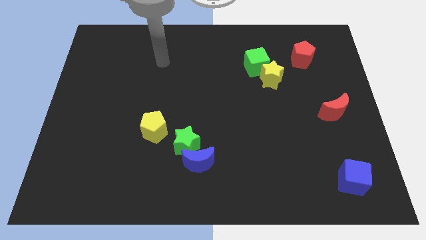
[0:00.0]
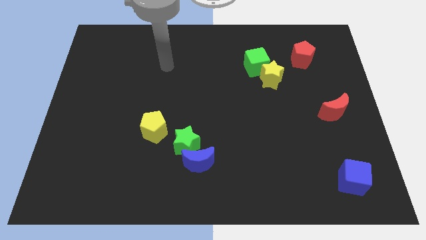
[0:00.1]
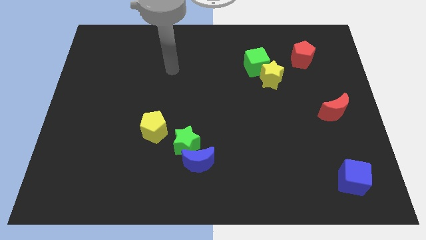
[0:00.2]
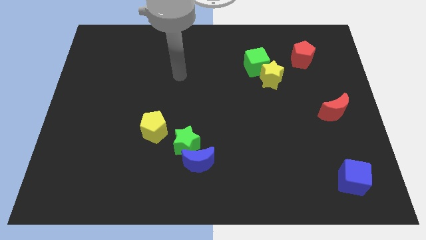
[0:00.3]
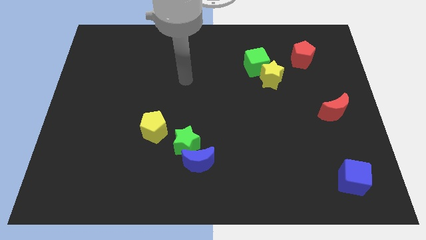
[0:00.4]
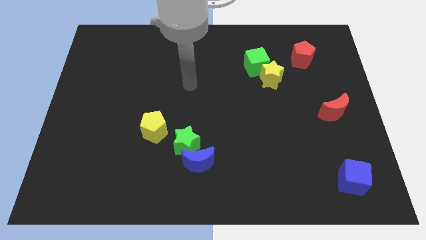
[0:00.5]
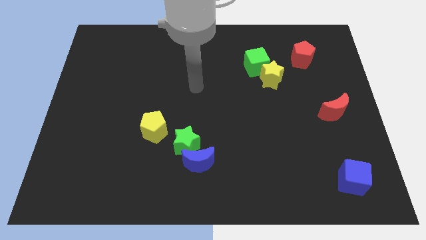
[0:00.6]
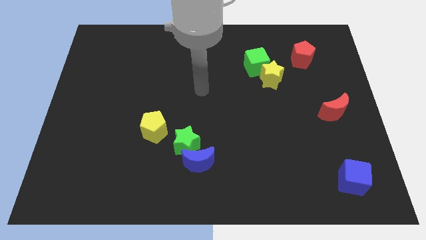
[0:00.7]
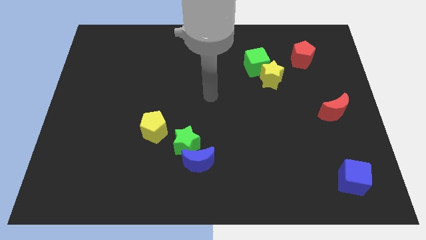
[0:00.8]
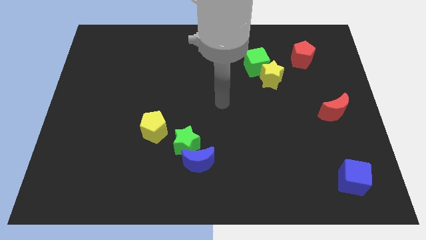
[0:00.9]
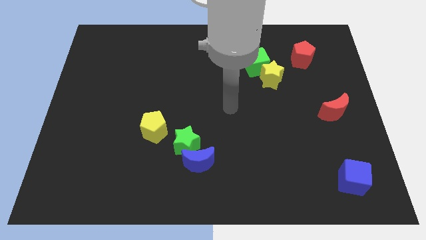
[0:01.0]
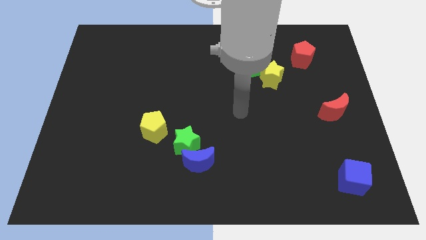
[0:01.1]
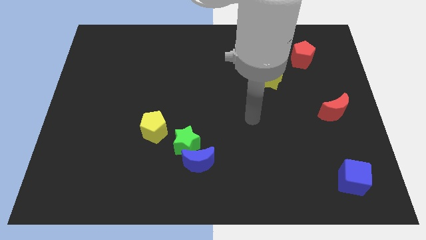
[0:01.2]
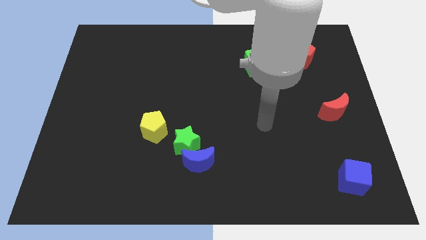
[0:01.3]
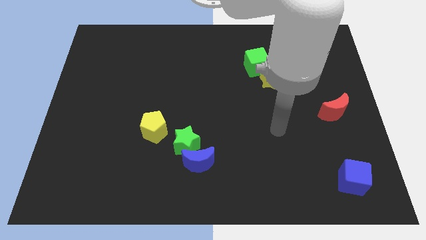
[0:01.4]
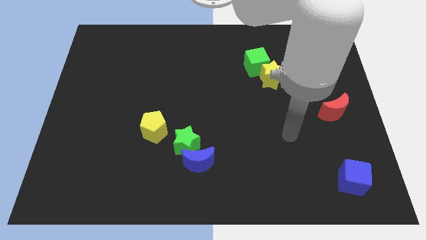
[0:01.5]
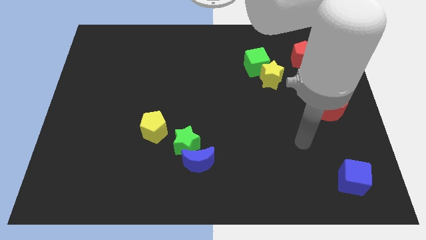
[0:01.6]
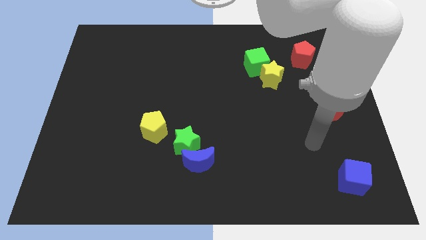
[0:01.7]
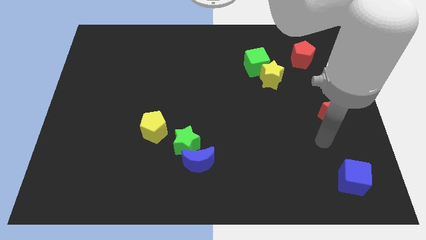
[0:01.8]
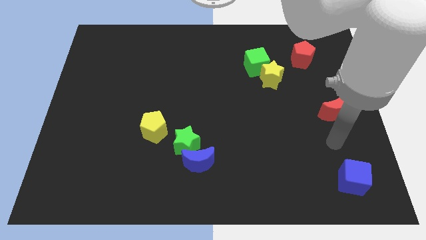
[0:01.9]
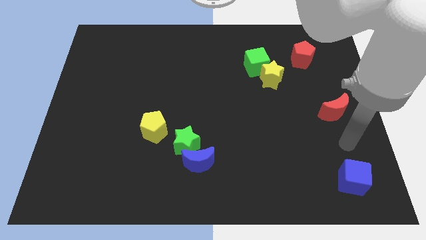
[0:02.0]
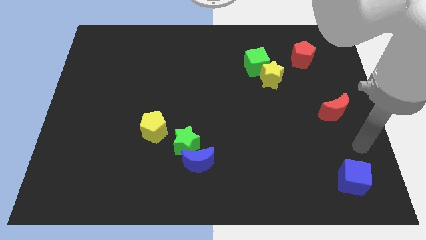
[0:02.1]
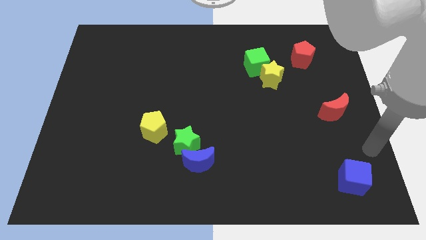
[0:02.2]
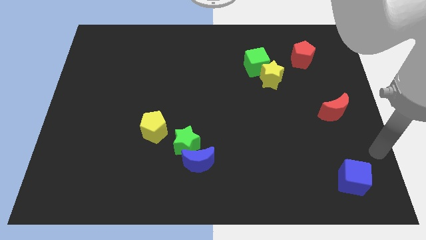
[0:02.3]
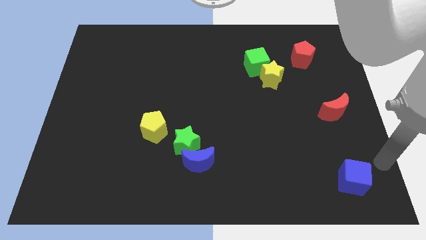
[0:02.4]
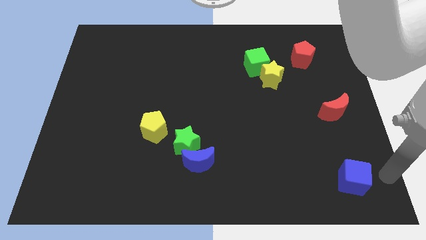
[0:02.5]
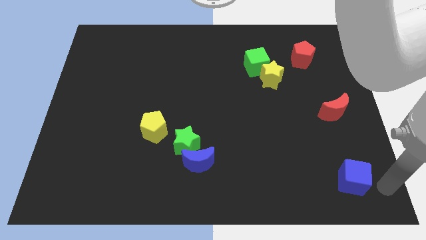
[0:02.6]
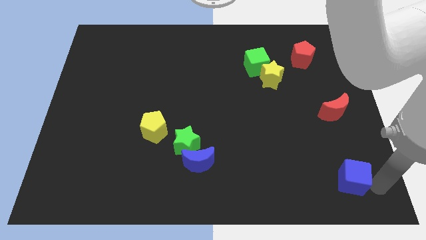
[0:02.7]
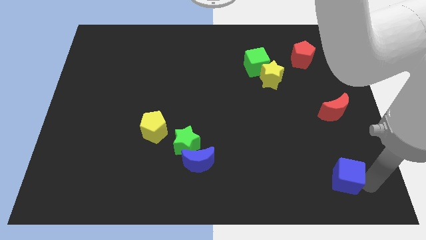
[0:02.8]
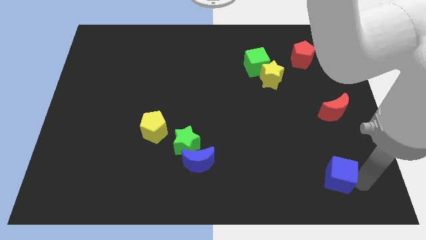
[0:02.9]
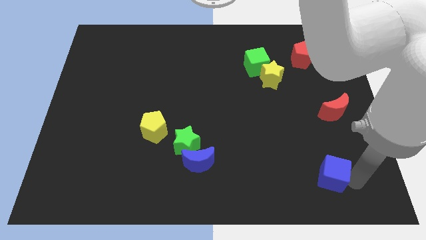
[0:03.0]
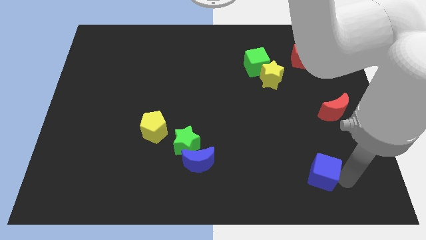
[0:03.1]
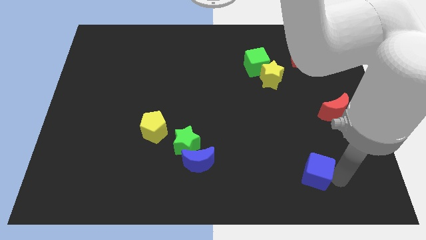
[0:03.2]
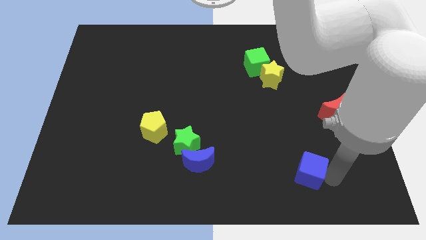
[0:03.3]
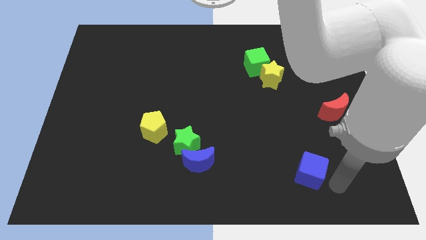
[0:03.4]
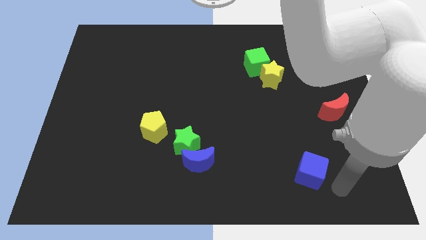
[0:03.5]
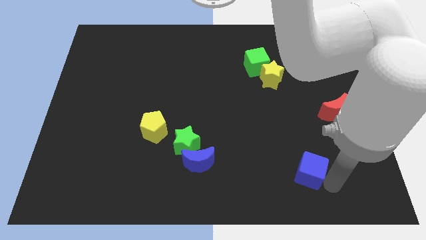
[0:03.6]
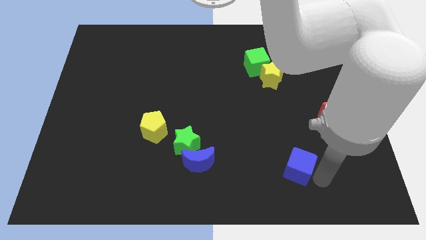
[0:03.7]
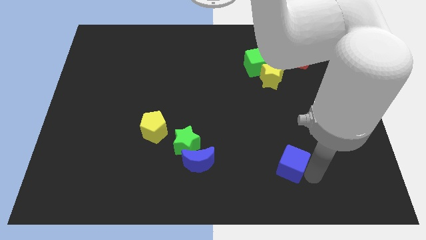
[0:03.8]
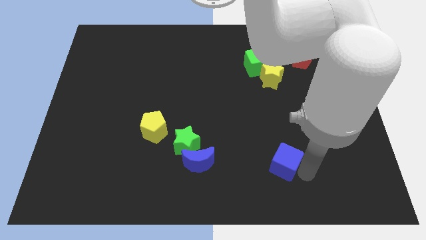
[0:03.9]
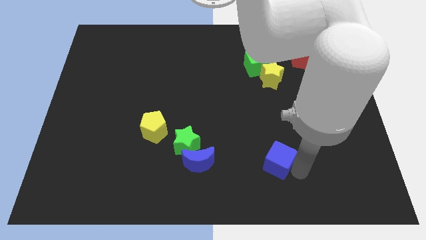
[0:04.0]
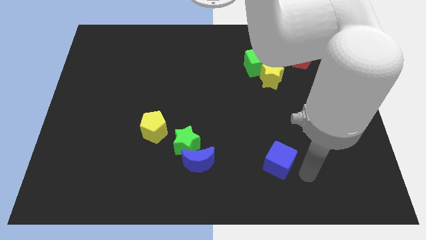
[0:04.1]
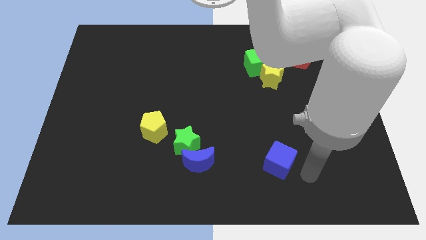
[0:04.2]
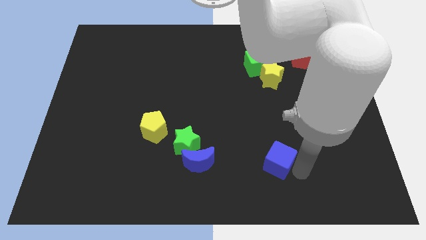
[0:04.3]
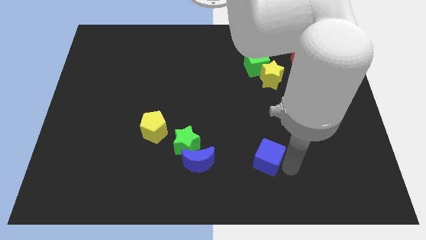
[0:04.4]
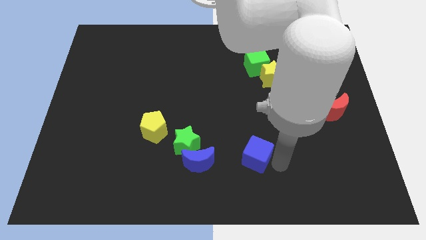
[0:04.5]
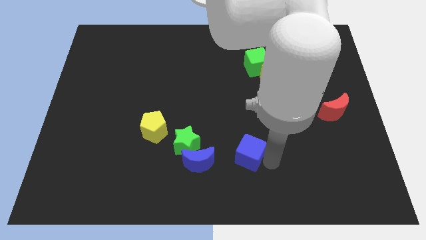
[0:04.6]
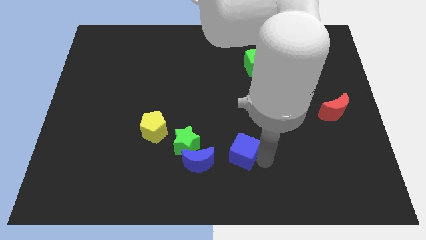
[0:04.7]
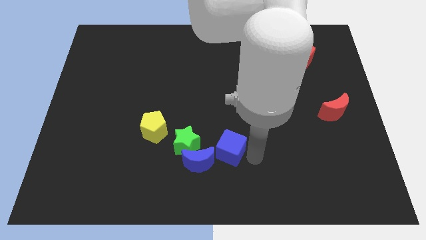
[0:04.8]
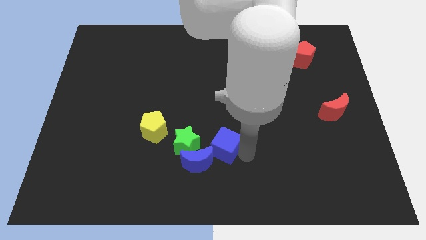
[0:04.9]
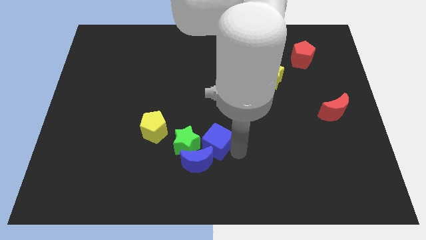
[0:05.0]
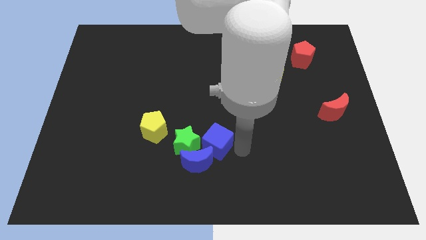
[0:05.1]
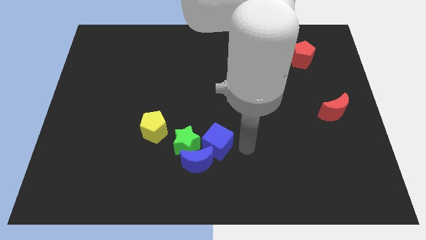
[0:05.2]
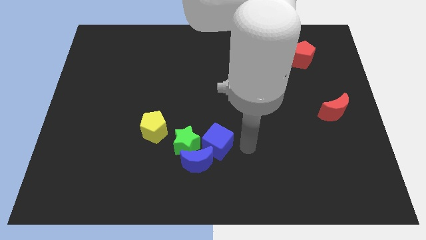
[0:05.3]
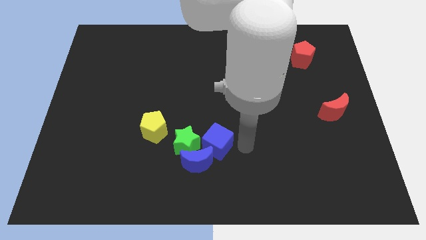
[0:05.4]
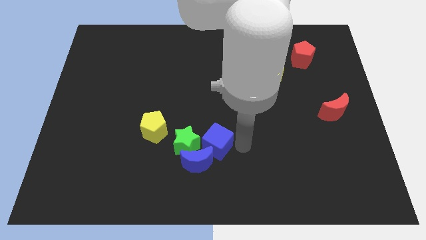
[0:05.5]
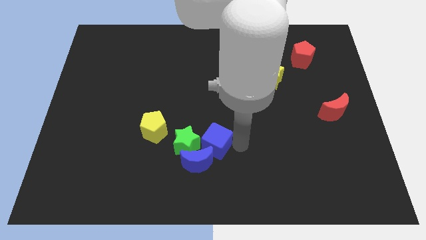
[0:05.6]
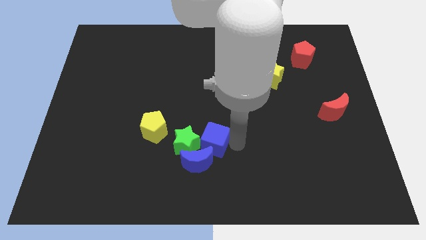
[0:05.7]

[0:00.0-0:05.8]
move the blue cube next to the green star

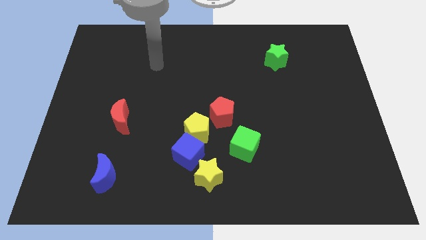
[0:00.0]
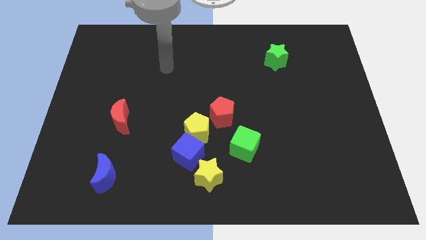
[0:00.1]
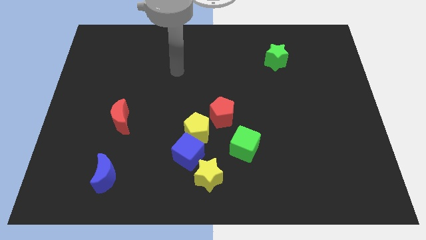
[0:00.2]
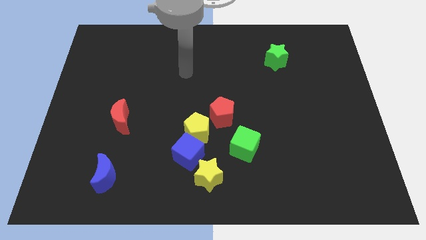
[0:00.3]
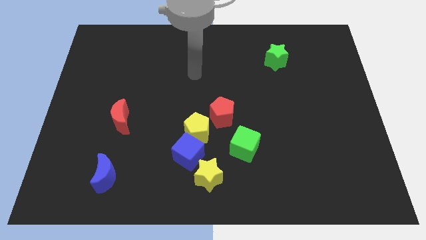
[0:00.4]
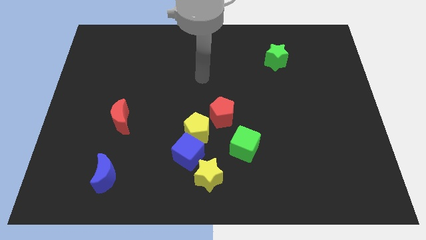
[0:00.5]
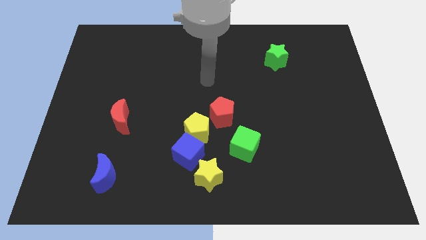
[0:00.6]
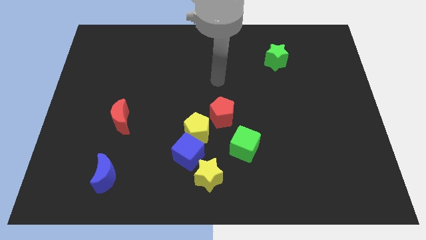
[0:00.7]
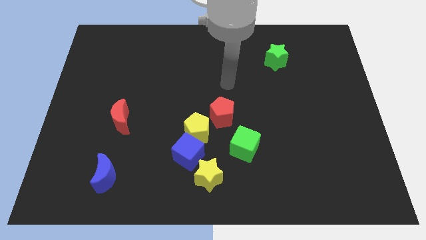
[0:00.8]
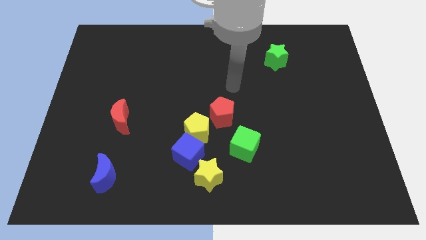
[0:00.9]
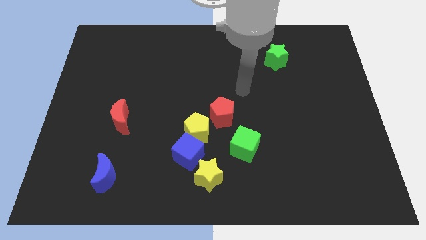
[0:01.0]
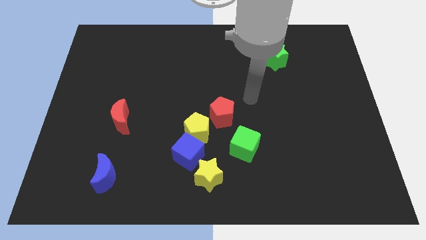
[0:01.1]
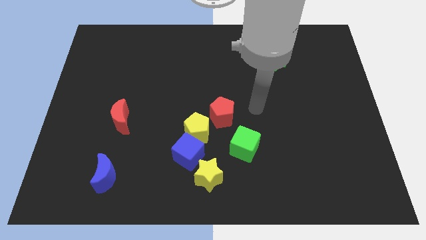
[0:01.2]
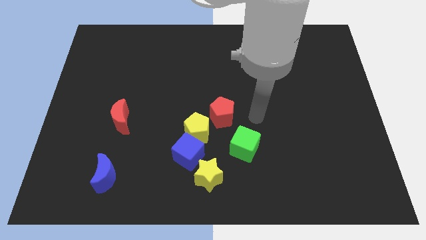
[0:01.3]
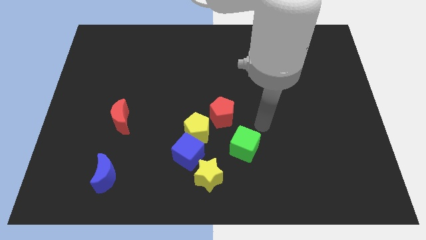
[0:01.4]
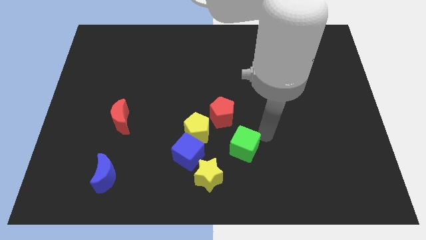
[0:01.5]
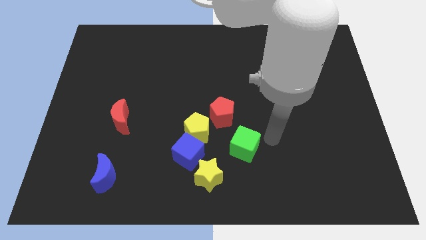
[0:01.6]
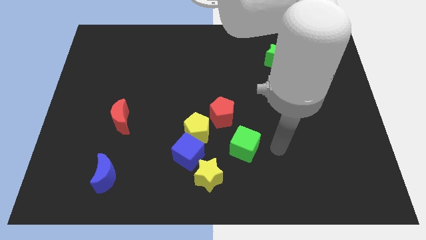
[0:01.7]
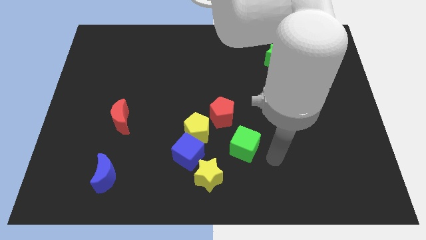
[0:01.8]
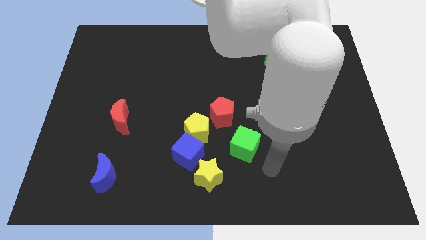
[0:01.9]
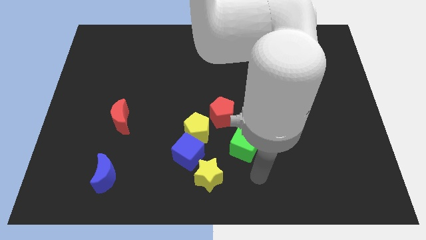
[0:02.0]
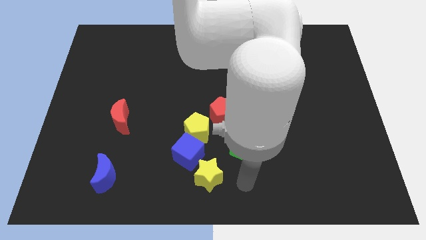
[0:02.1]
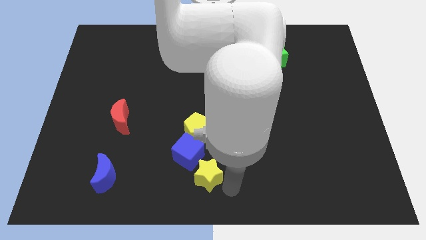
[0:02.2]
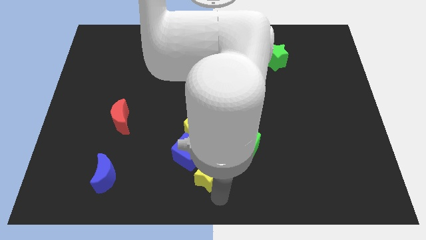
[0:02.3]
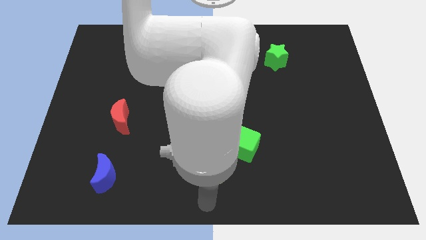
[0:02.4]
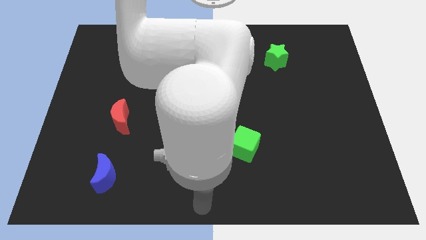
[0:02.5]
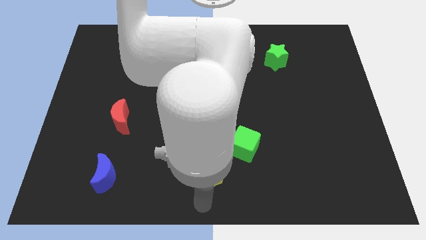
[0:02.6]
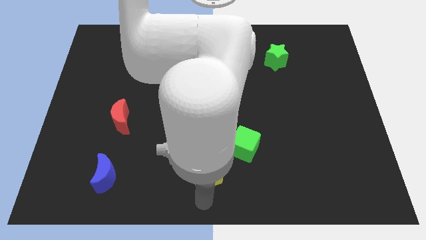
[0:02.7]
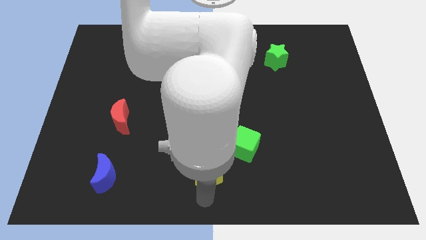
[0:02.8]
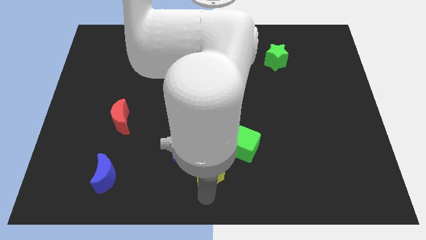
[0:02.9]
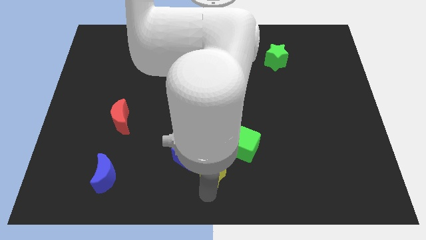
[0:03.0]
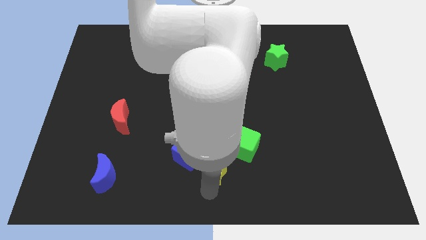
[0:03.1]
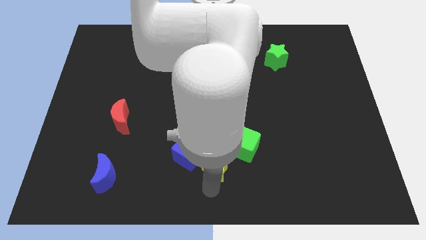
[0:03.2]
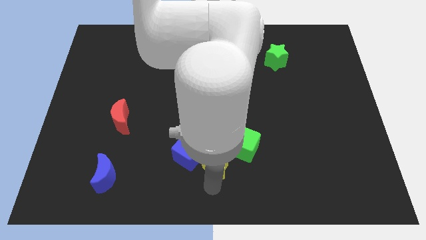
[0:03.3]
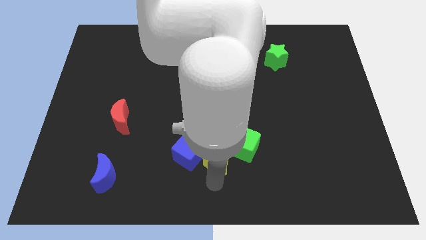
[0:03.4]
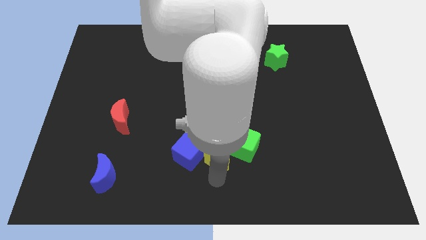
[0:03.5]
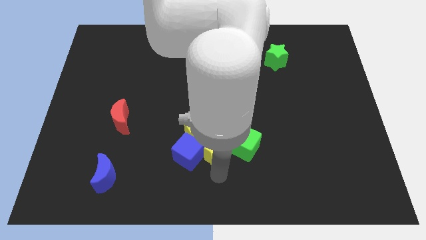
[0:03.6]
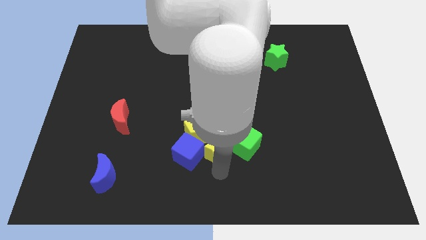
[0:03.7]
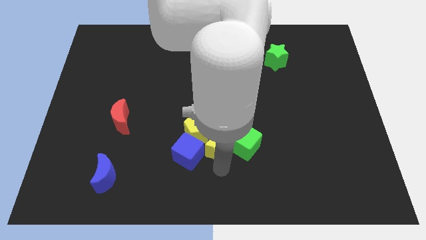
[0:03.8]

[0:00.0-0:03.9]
move the yellow star towards the yellow pentagon
